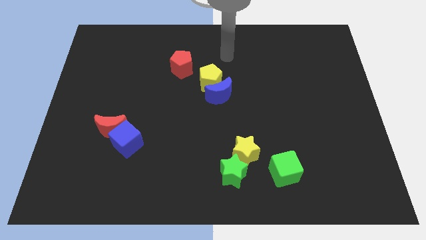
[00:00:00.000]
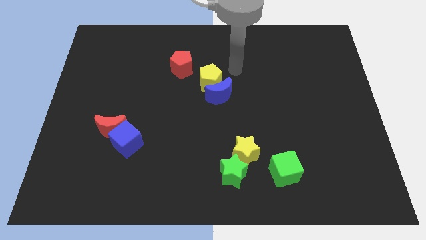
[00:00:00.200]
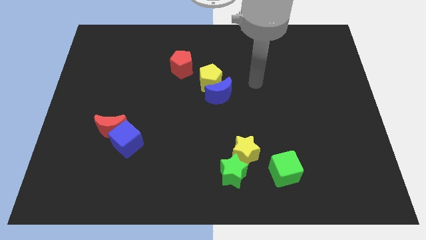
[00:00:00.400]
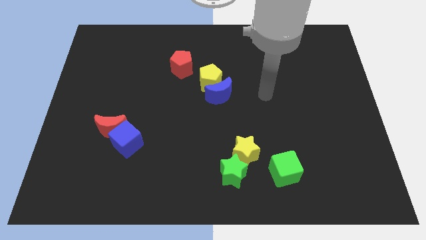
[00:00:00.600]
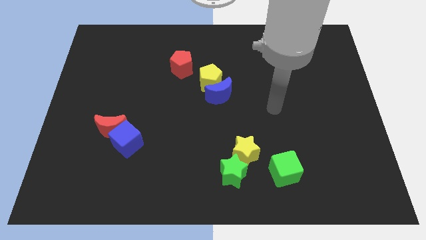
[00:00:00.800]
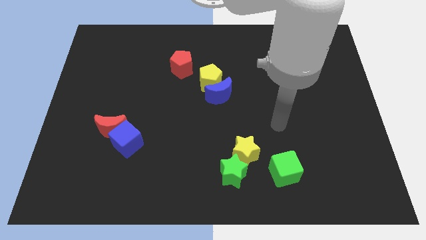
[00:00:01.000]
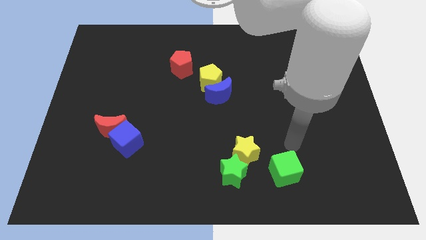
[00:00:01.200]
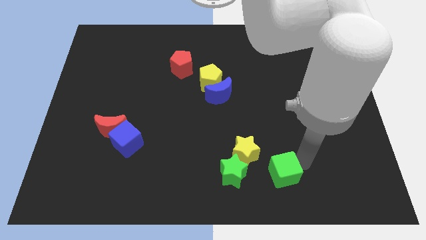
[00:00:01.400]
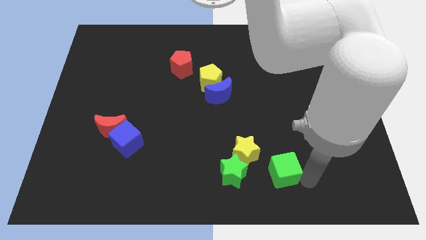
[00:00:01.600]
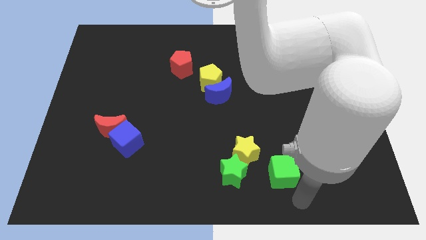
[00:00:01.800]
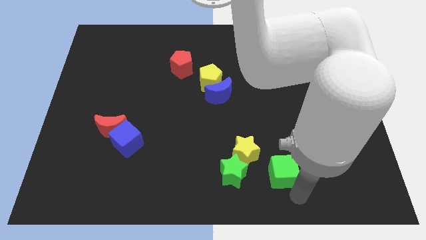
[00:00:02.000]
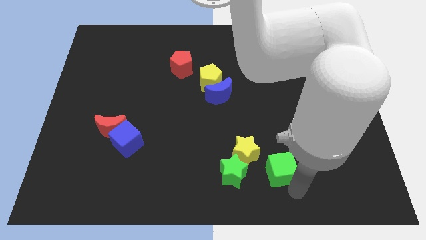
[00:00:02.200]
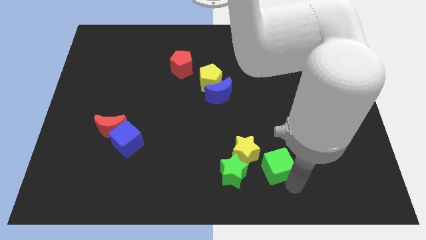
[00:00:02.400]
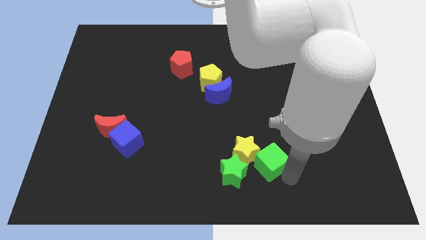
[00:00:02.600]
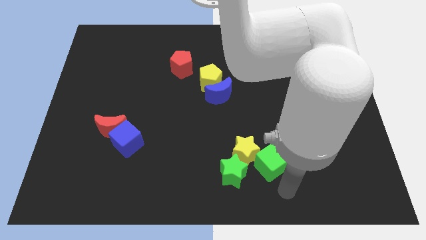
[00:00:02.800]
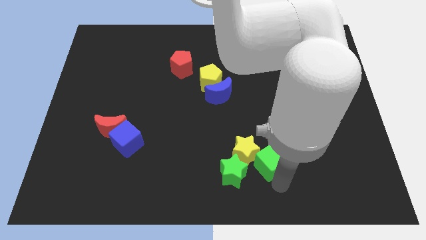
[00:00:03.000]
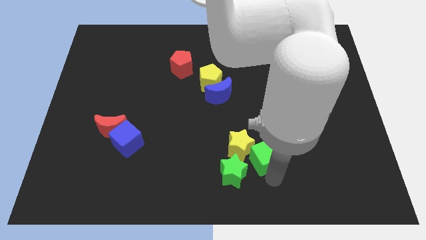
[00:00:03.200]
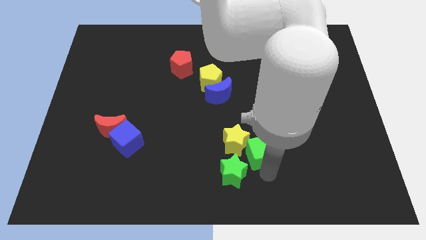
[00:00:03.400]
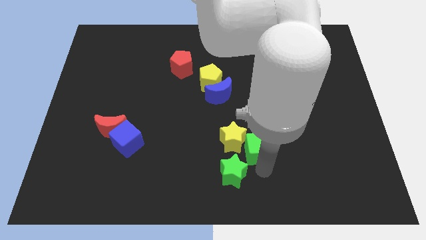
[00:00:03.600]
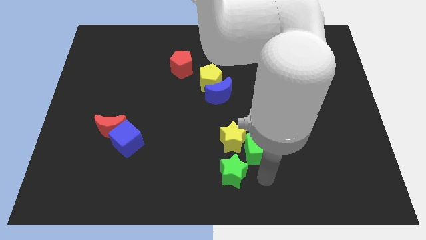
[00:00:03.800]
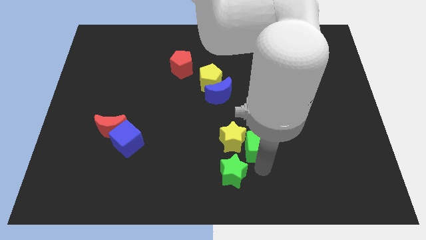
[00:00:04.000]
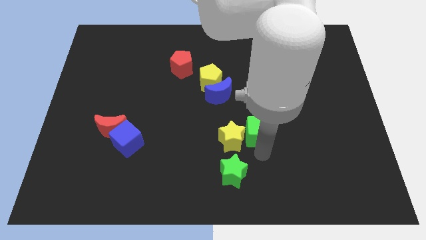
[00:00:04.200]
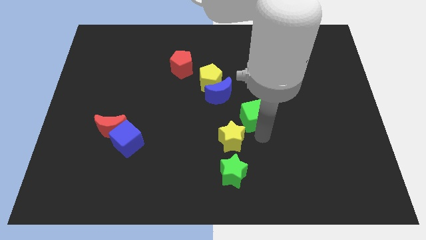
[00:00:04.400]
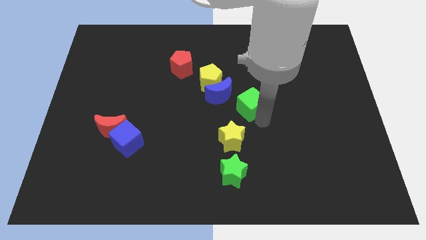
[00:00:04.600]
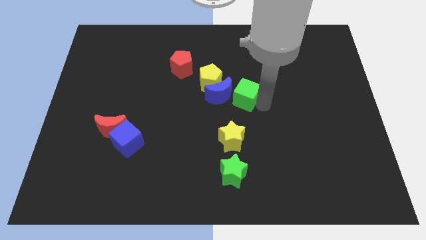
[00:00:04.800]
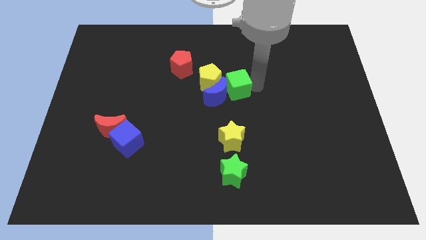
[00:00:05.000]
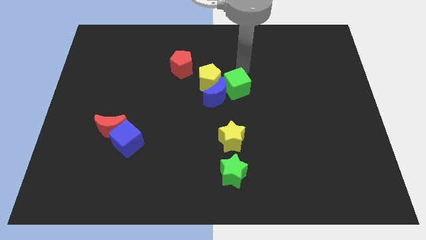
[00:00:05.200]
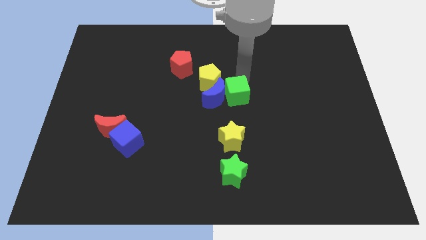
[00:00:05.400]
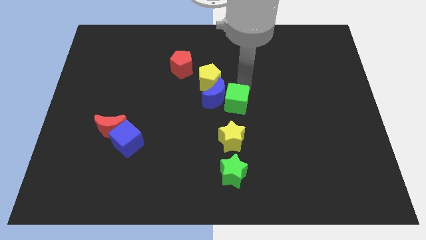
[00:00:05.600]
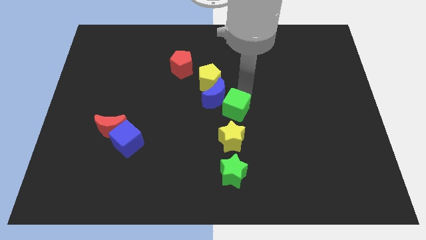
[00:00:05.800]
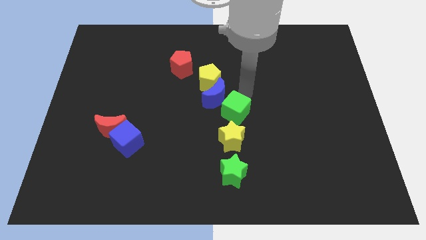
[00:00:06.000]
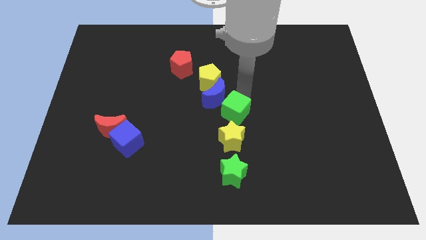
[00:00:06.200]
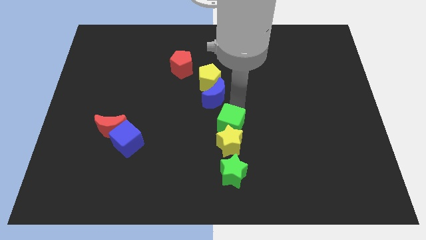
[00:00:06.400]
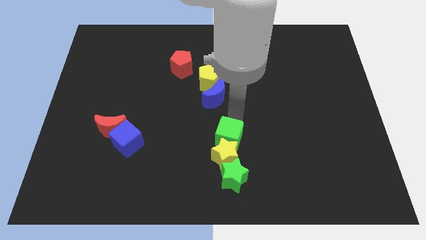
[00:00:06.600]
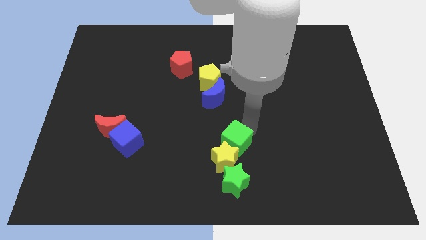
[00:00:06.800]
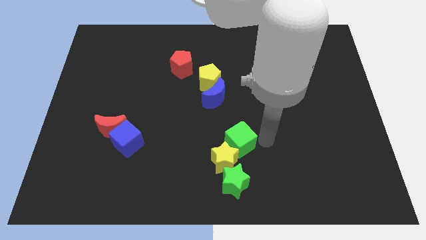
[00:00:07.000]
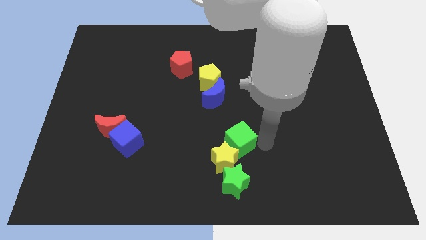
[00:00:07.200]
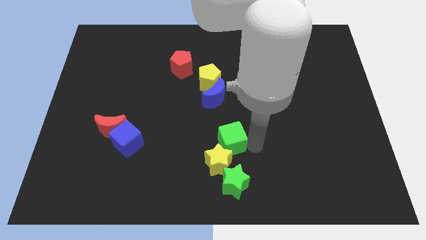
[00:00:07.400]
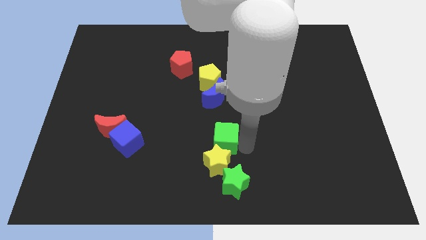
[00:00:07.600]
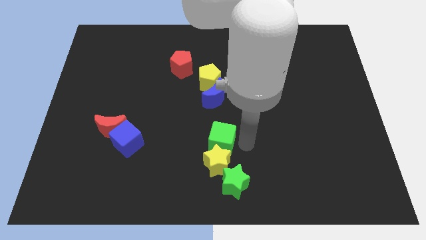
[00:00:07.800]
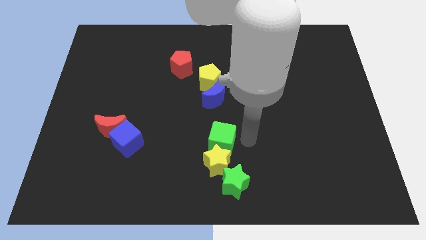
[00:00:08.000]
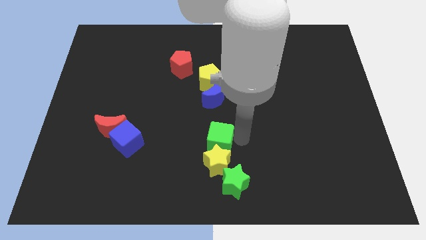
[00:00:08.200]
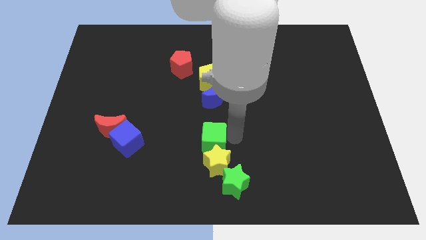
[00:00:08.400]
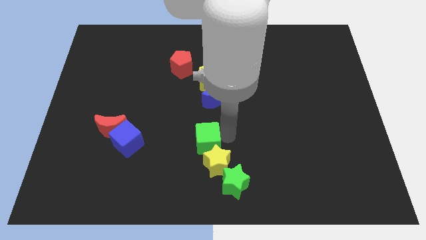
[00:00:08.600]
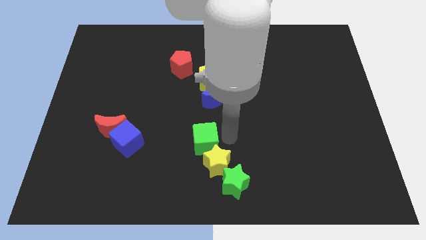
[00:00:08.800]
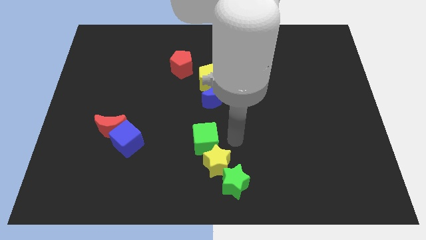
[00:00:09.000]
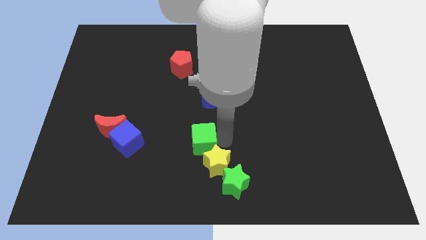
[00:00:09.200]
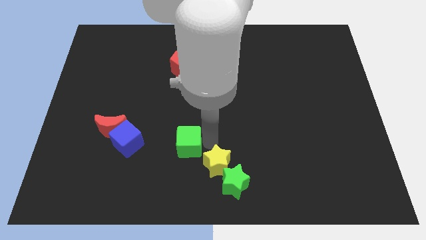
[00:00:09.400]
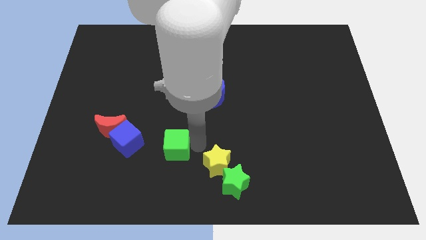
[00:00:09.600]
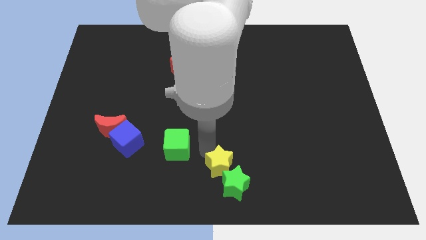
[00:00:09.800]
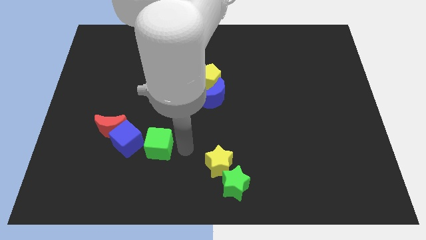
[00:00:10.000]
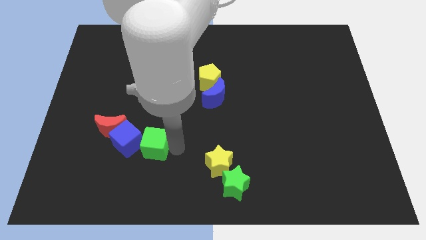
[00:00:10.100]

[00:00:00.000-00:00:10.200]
move the green cube close to the blue cube

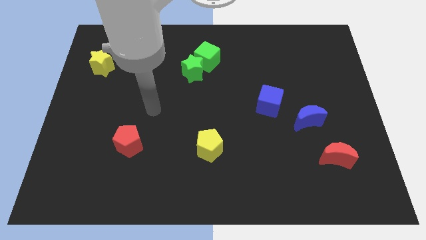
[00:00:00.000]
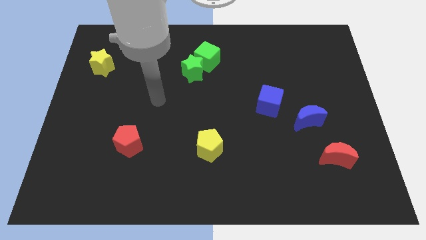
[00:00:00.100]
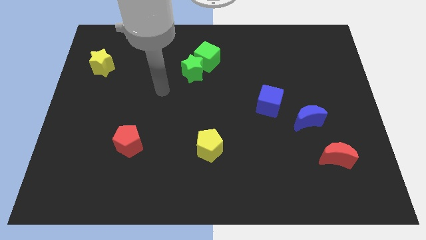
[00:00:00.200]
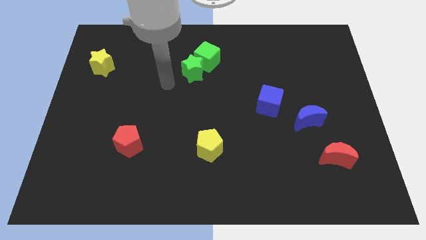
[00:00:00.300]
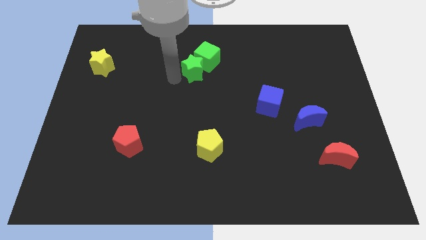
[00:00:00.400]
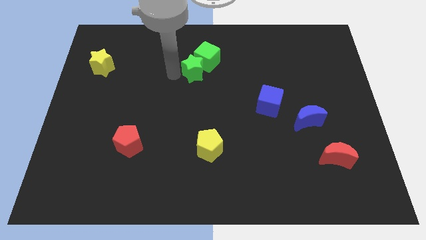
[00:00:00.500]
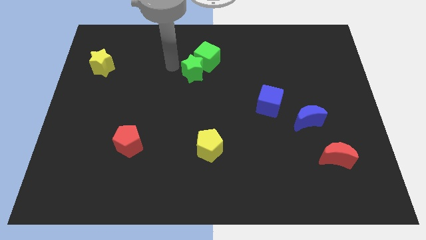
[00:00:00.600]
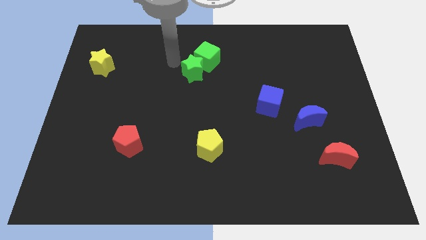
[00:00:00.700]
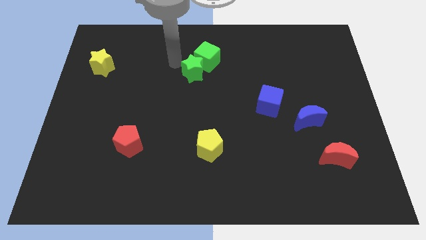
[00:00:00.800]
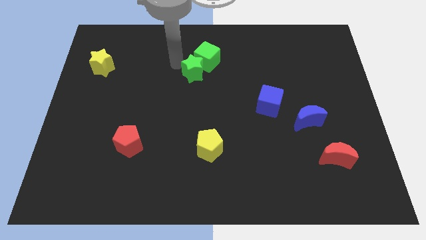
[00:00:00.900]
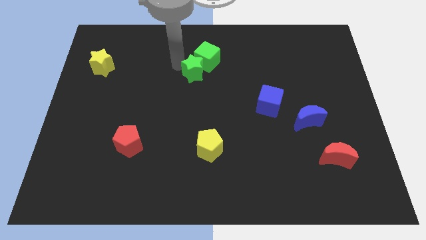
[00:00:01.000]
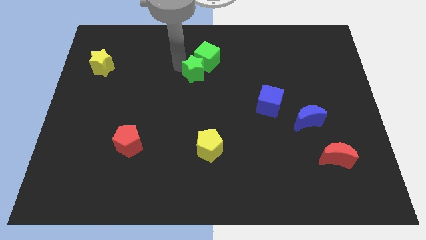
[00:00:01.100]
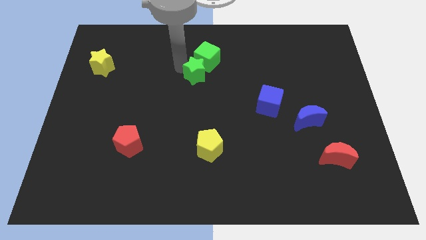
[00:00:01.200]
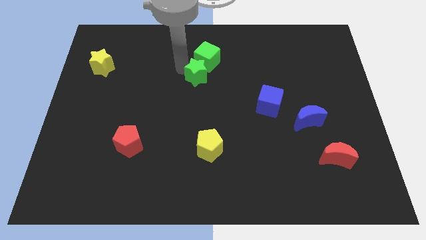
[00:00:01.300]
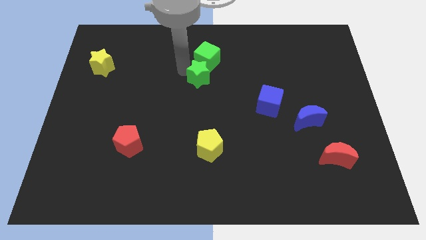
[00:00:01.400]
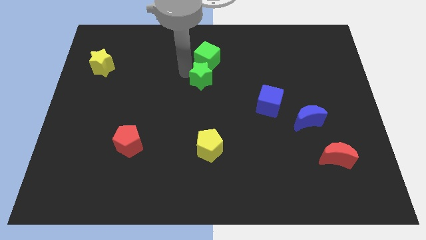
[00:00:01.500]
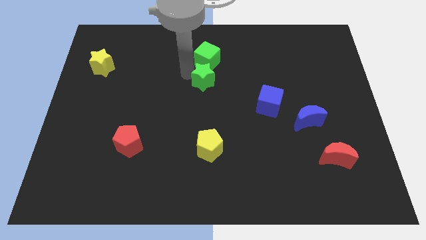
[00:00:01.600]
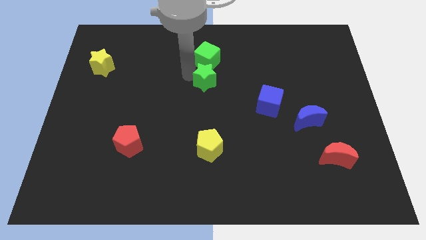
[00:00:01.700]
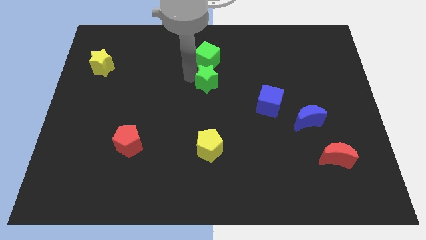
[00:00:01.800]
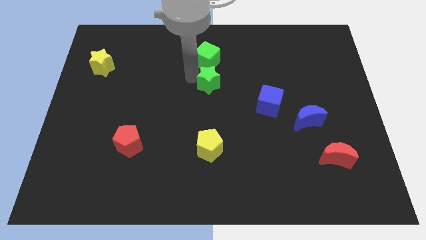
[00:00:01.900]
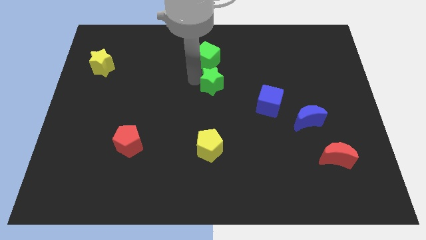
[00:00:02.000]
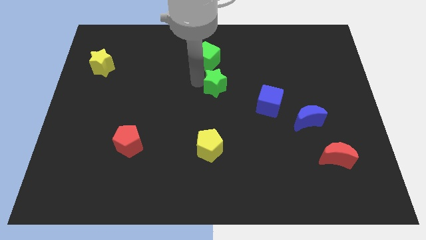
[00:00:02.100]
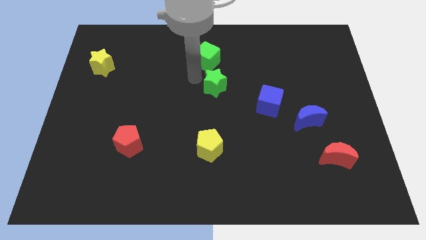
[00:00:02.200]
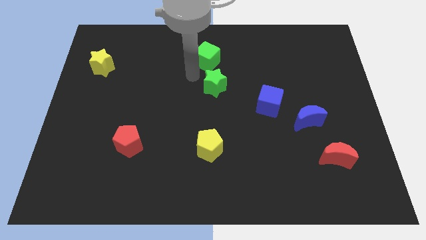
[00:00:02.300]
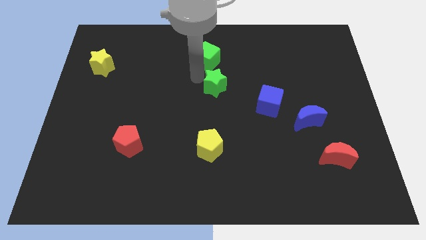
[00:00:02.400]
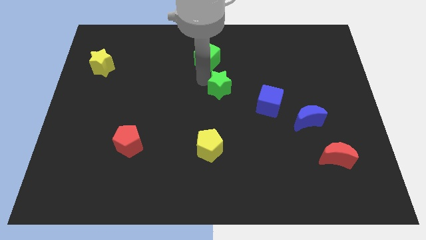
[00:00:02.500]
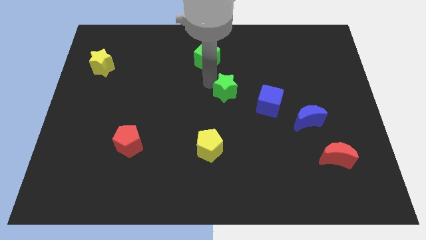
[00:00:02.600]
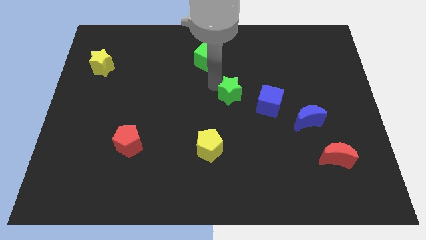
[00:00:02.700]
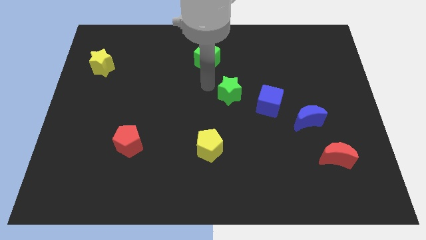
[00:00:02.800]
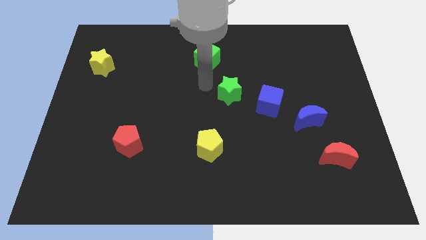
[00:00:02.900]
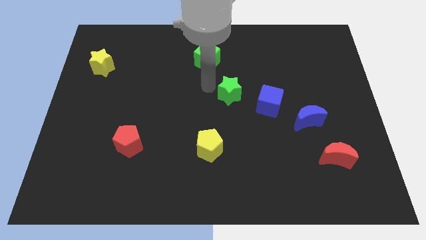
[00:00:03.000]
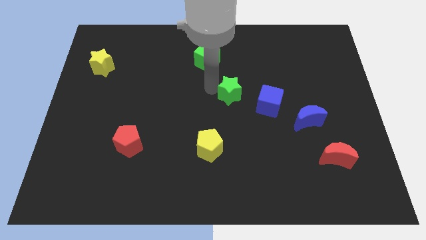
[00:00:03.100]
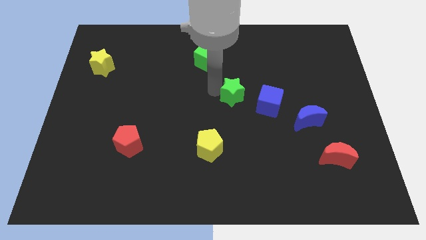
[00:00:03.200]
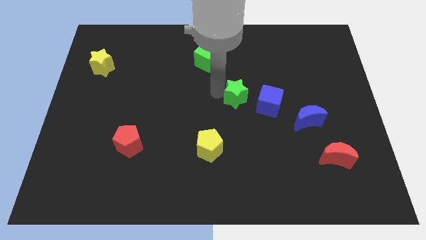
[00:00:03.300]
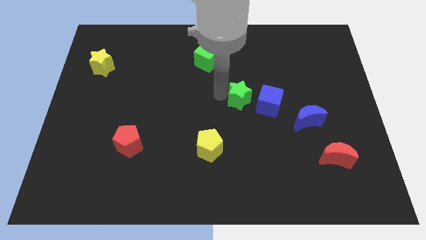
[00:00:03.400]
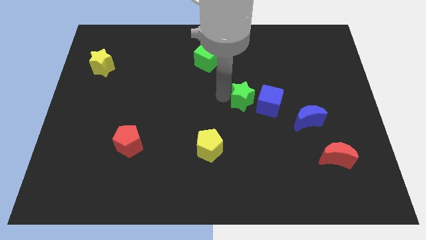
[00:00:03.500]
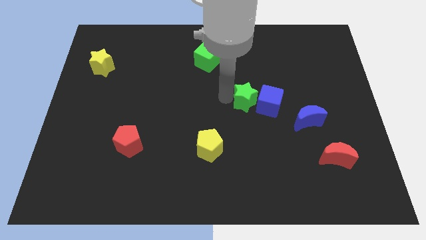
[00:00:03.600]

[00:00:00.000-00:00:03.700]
put the green star next to the blue cube
